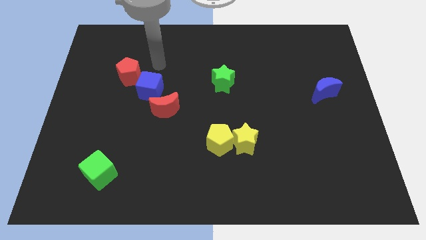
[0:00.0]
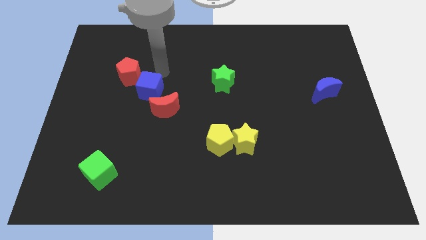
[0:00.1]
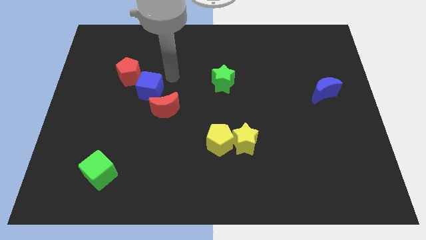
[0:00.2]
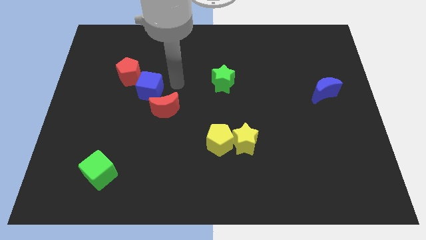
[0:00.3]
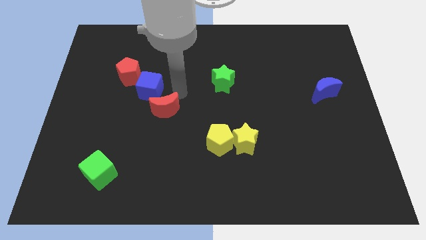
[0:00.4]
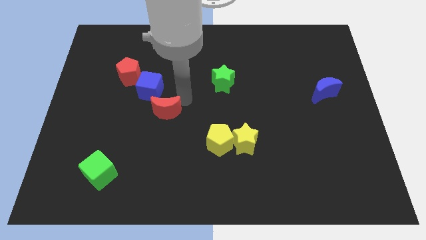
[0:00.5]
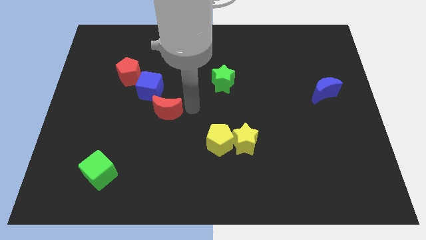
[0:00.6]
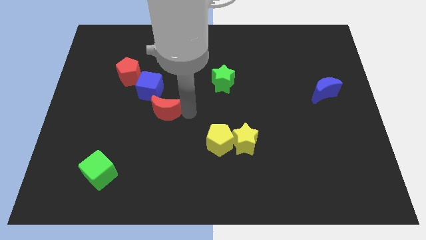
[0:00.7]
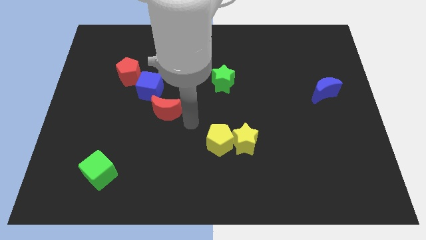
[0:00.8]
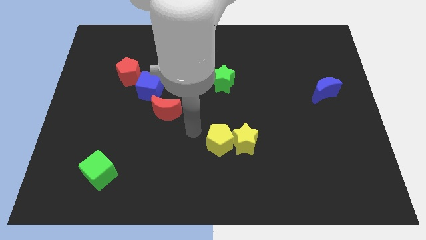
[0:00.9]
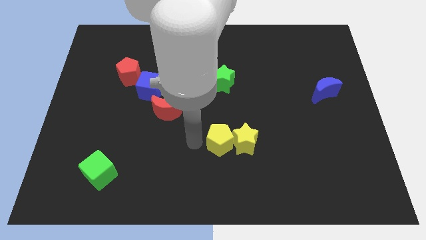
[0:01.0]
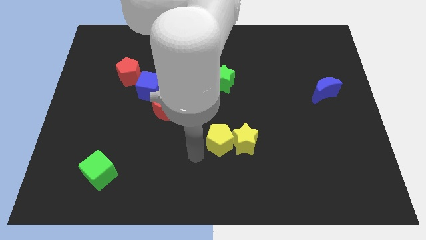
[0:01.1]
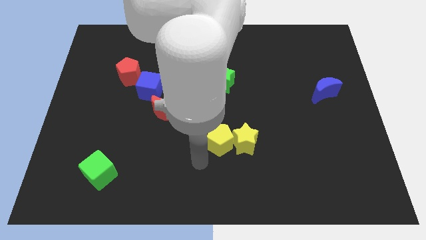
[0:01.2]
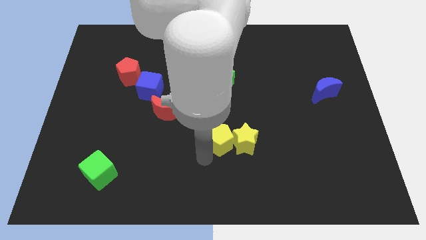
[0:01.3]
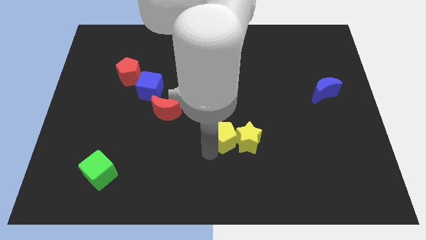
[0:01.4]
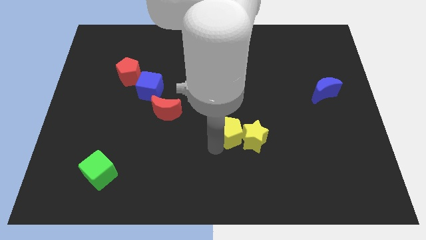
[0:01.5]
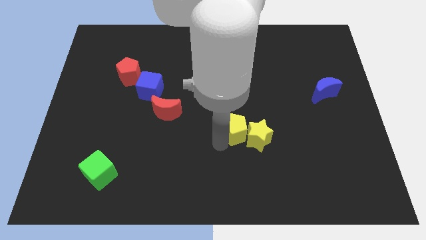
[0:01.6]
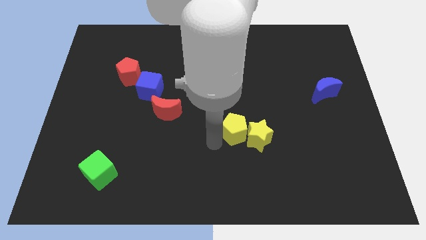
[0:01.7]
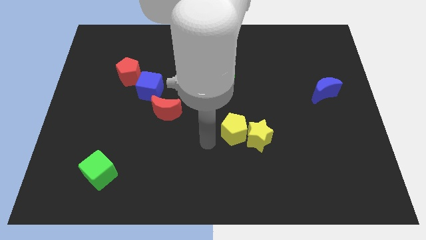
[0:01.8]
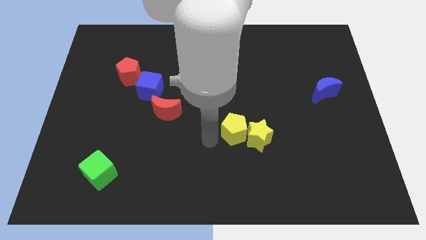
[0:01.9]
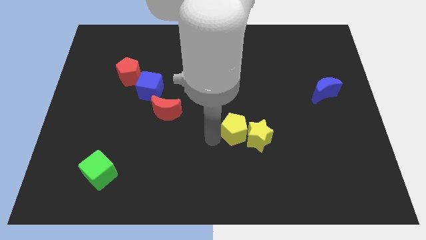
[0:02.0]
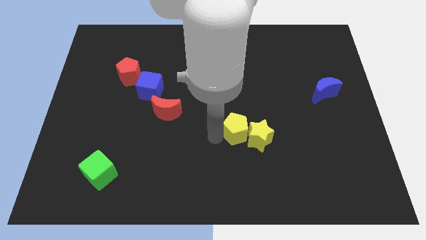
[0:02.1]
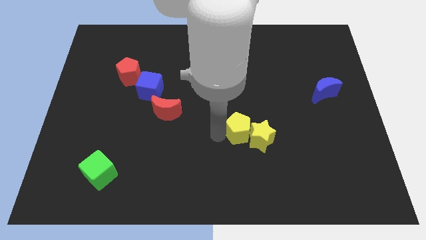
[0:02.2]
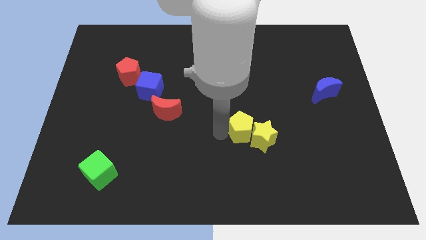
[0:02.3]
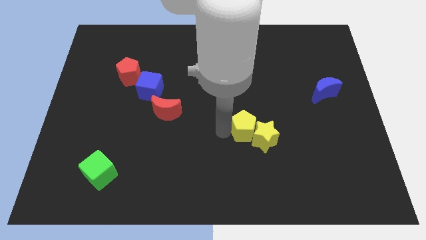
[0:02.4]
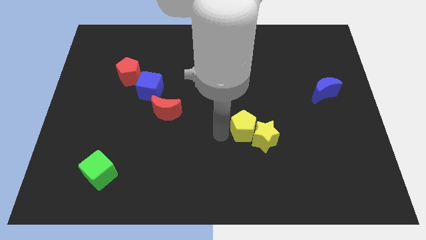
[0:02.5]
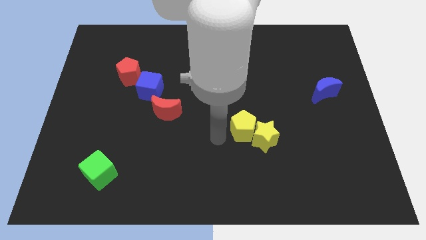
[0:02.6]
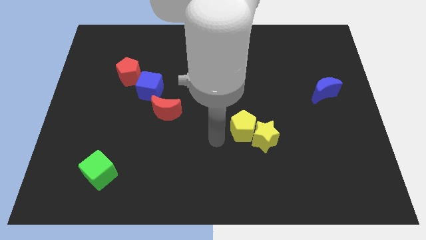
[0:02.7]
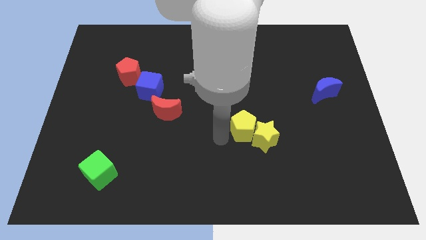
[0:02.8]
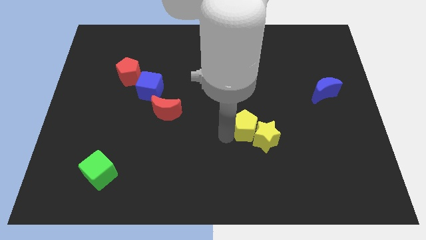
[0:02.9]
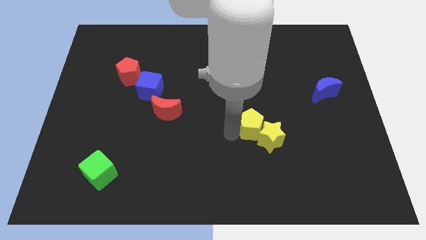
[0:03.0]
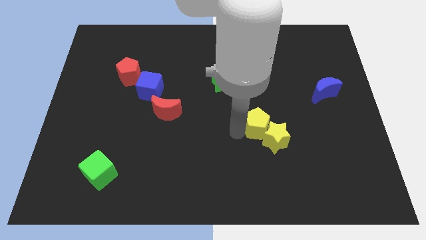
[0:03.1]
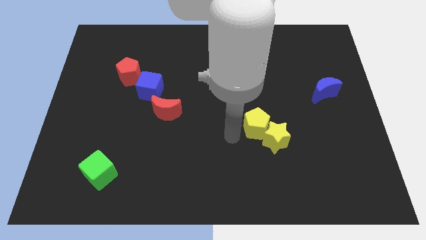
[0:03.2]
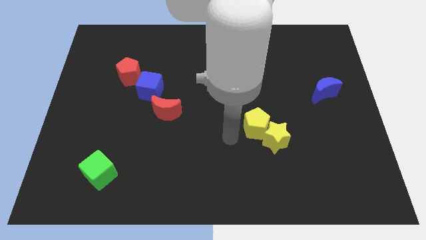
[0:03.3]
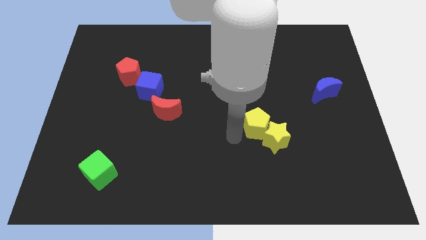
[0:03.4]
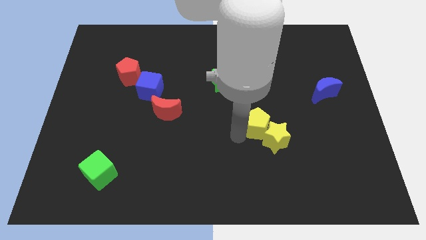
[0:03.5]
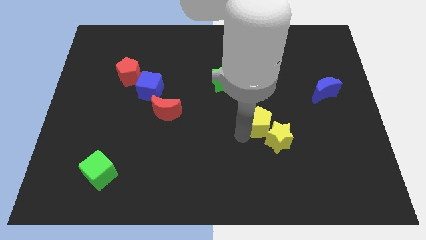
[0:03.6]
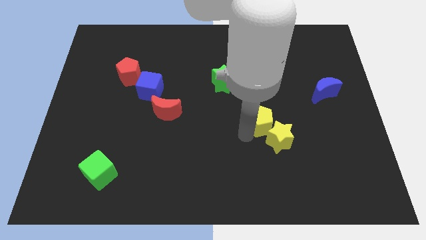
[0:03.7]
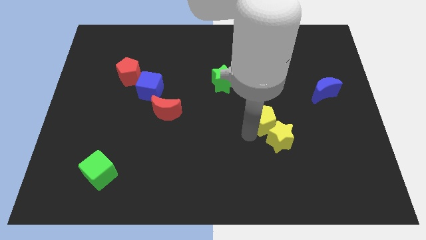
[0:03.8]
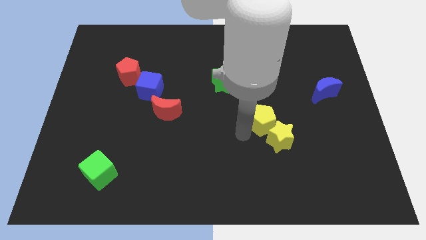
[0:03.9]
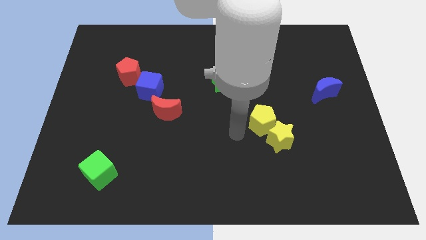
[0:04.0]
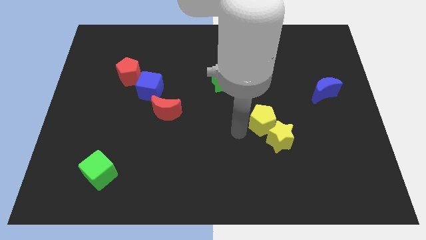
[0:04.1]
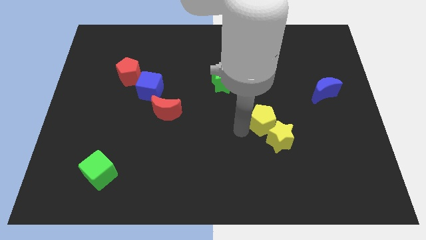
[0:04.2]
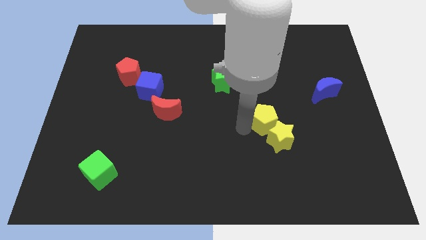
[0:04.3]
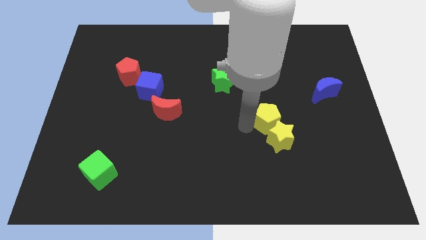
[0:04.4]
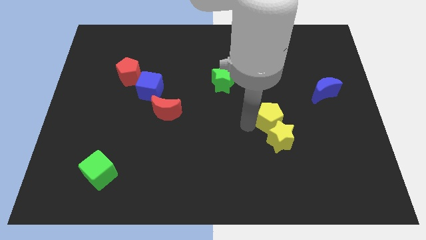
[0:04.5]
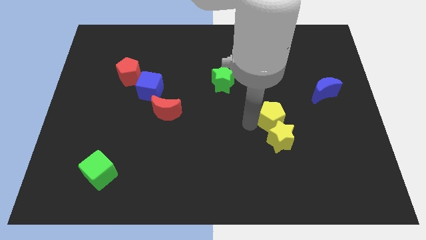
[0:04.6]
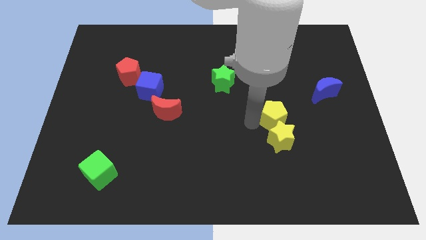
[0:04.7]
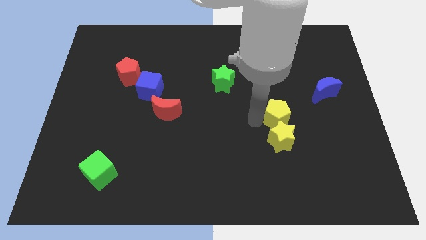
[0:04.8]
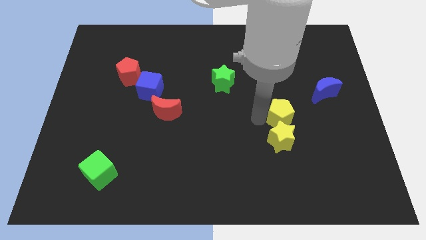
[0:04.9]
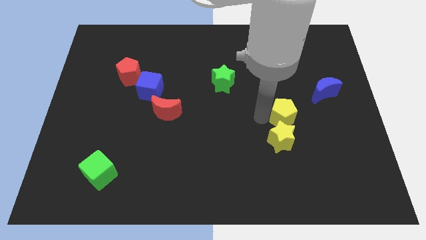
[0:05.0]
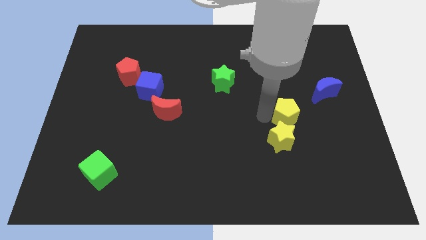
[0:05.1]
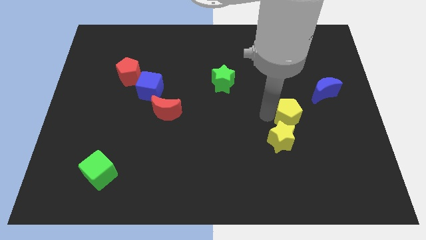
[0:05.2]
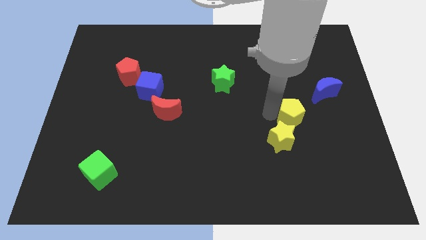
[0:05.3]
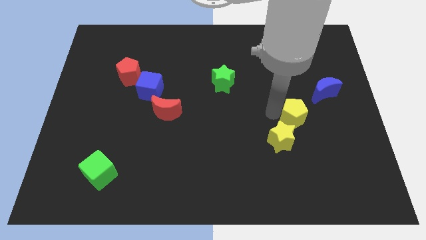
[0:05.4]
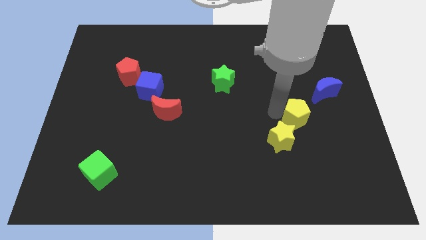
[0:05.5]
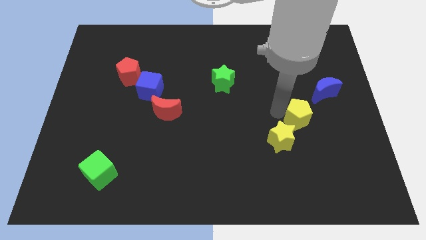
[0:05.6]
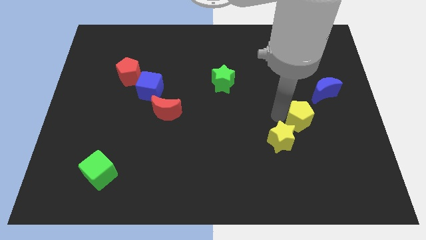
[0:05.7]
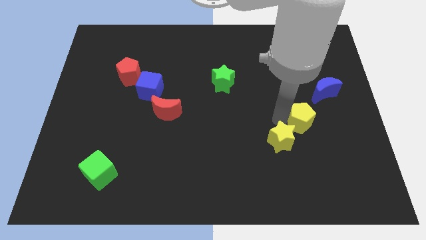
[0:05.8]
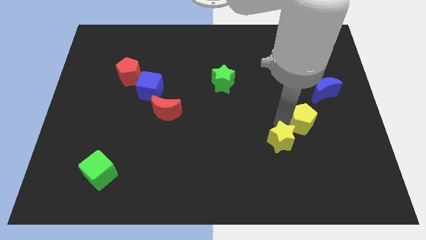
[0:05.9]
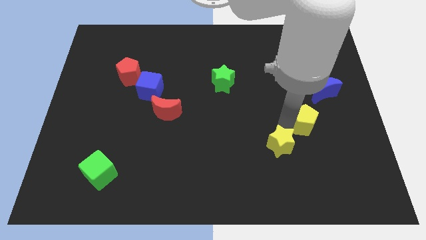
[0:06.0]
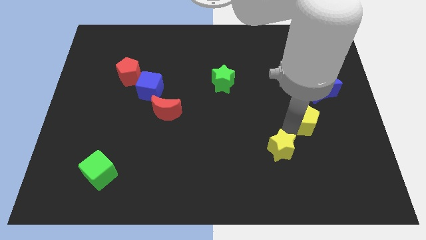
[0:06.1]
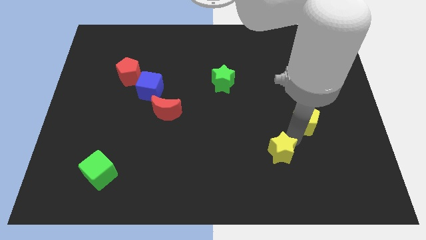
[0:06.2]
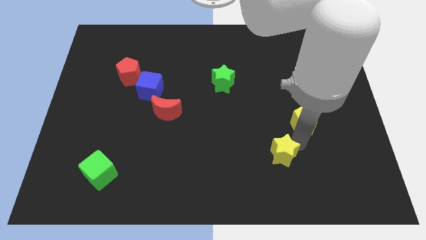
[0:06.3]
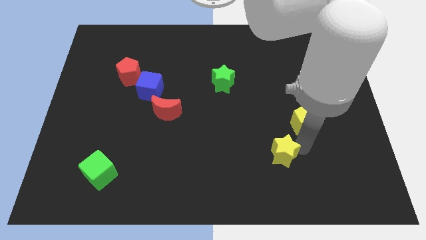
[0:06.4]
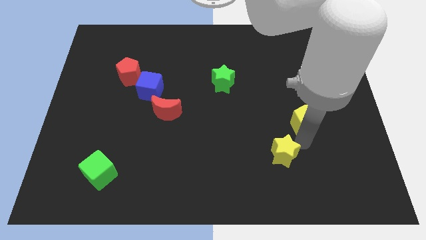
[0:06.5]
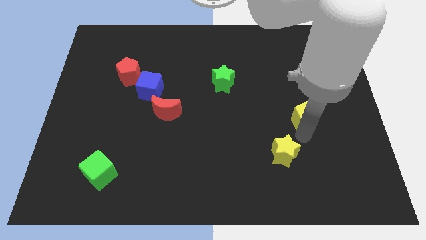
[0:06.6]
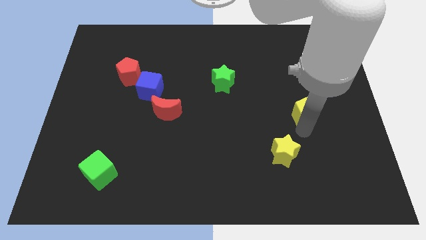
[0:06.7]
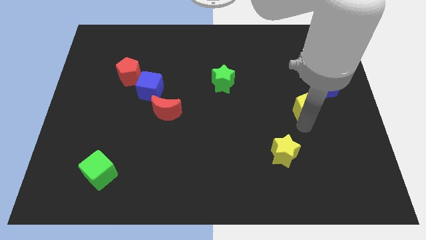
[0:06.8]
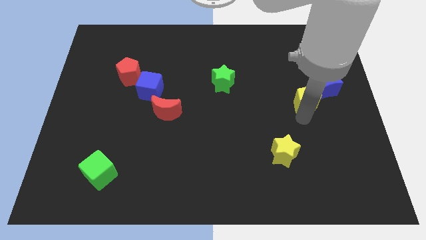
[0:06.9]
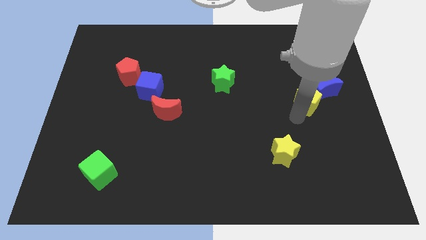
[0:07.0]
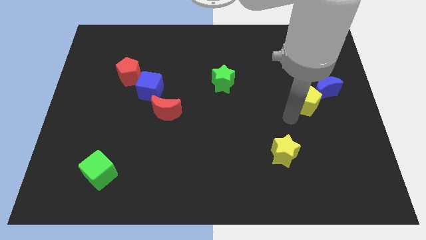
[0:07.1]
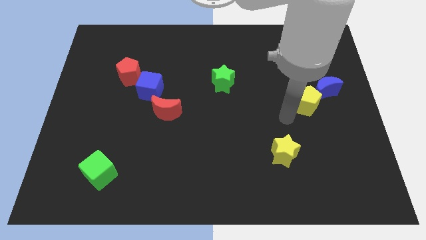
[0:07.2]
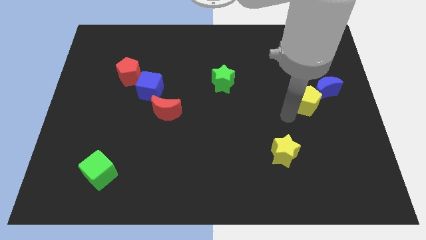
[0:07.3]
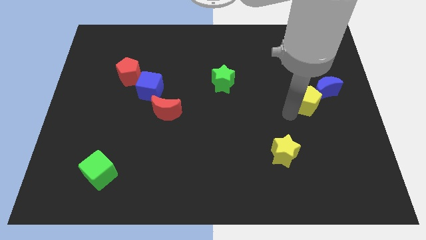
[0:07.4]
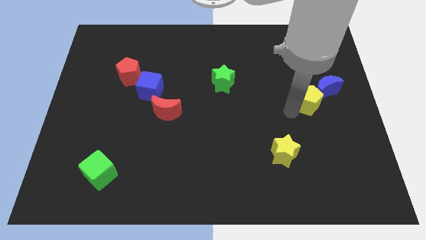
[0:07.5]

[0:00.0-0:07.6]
push the yellow pentagon towards the blue moon
